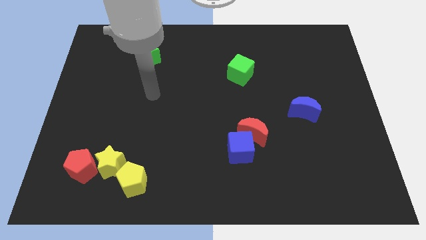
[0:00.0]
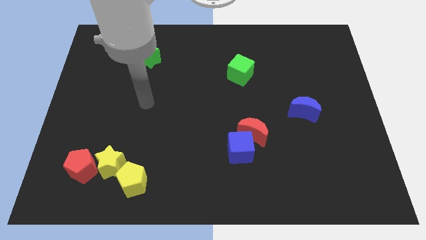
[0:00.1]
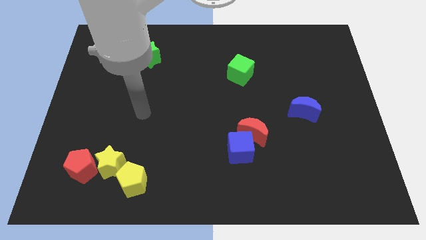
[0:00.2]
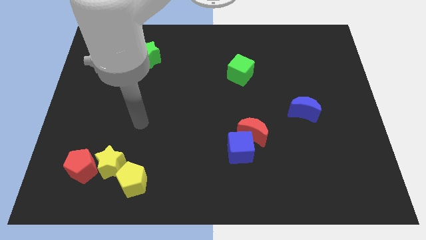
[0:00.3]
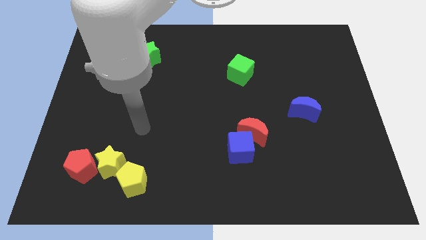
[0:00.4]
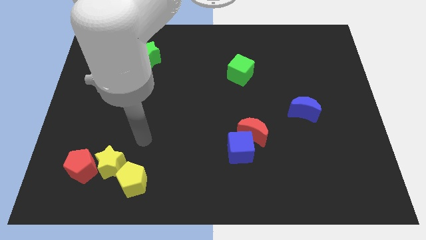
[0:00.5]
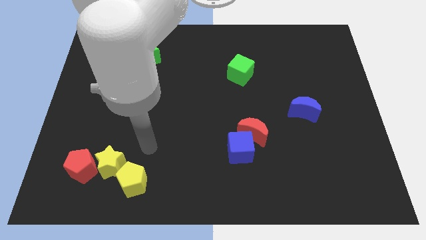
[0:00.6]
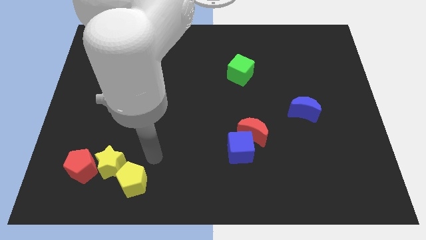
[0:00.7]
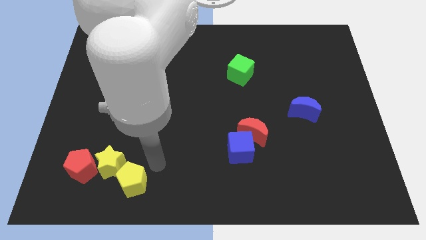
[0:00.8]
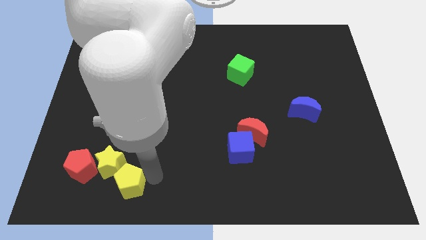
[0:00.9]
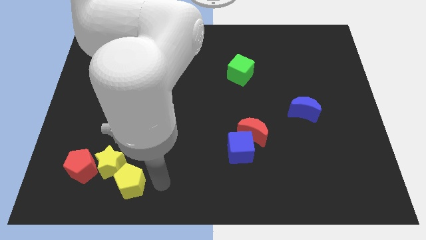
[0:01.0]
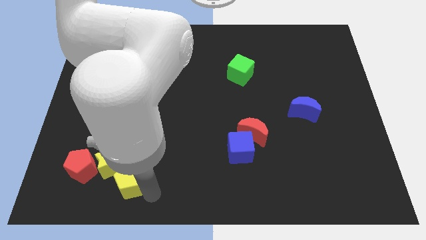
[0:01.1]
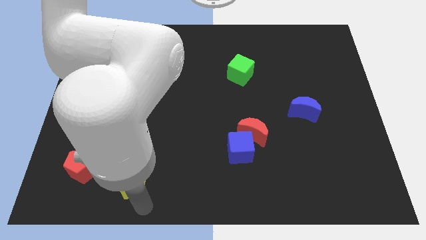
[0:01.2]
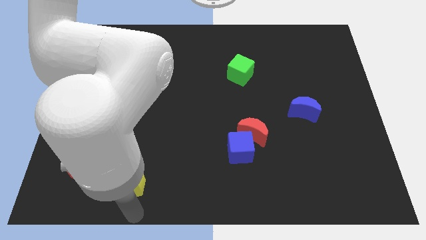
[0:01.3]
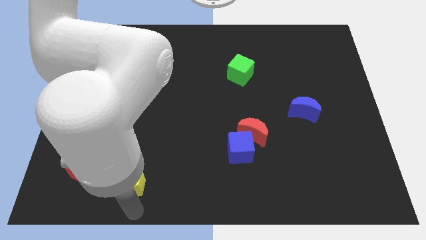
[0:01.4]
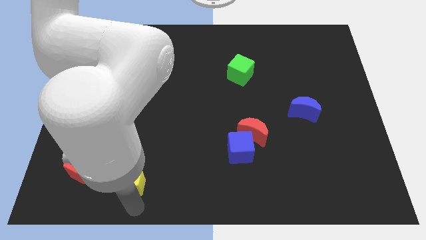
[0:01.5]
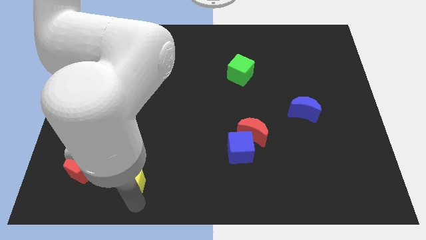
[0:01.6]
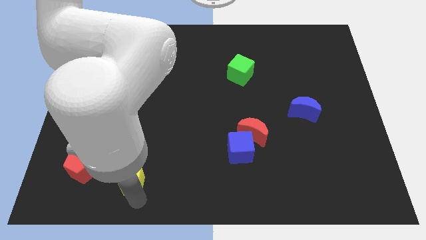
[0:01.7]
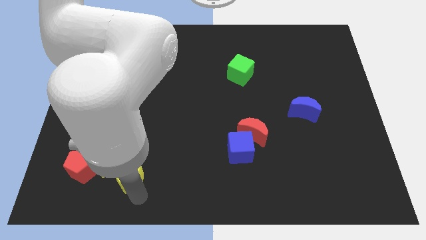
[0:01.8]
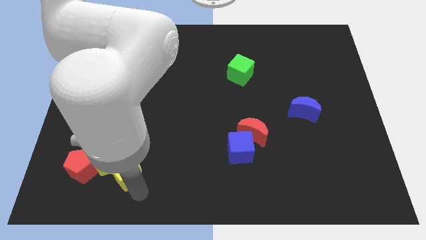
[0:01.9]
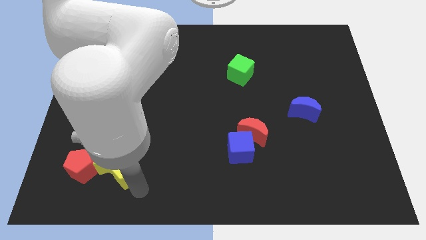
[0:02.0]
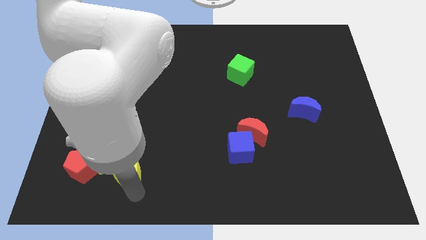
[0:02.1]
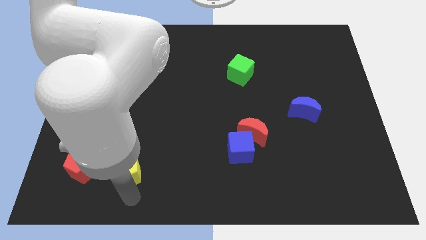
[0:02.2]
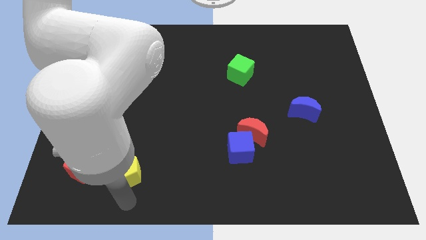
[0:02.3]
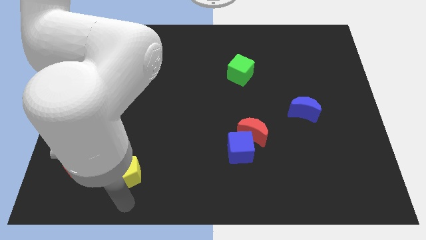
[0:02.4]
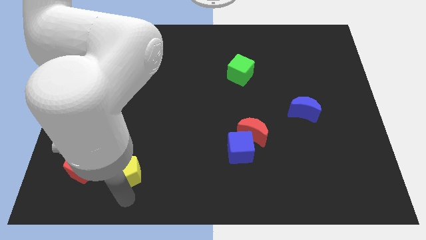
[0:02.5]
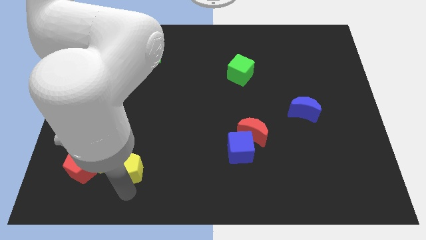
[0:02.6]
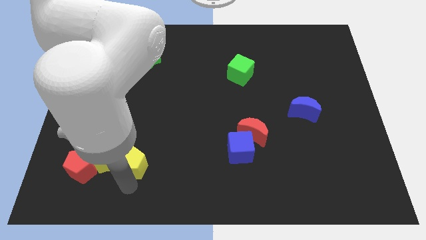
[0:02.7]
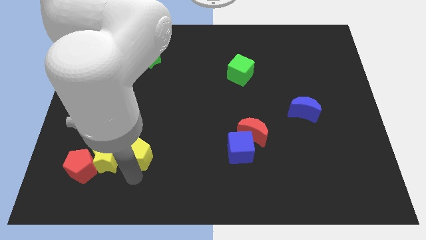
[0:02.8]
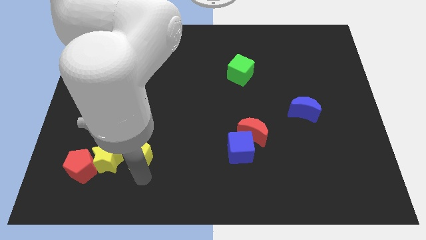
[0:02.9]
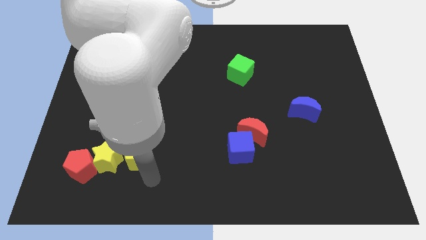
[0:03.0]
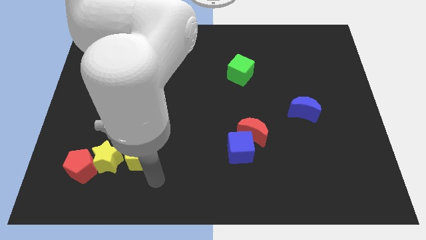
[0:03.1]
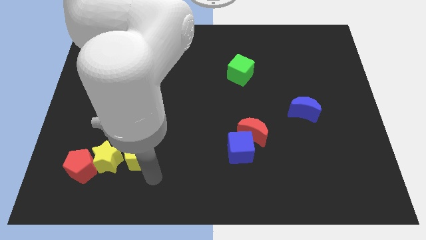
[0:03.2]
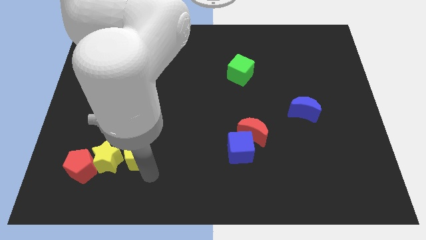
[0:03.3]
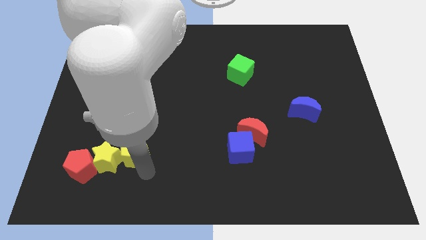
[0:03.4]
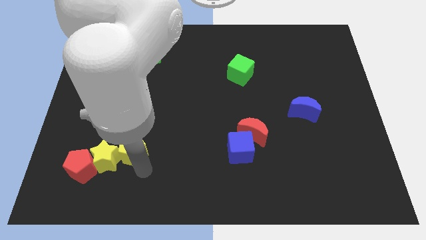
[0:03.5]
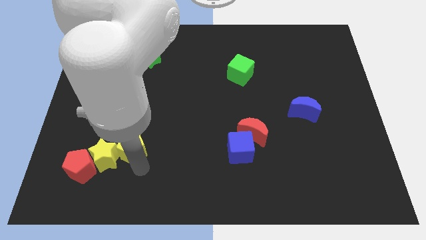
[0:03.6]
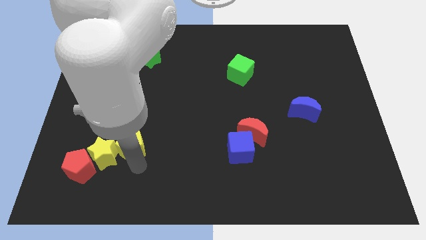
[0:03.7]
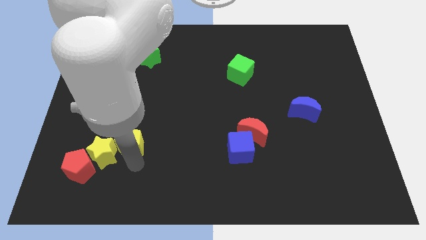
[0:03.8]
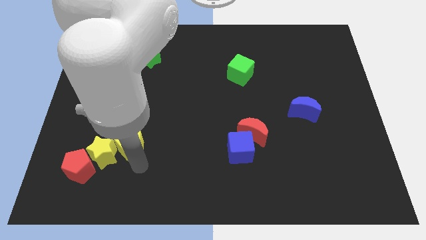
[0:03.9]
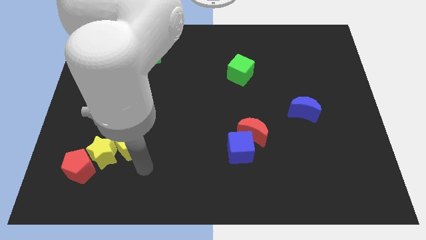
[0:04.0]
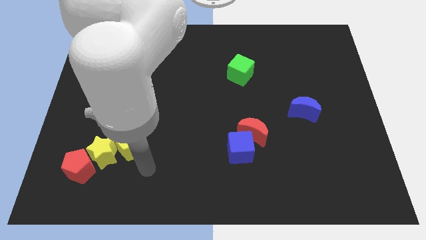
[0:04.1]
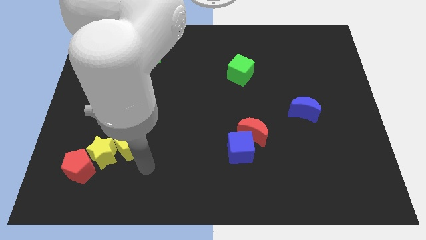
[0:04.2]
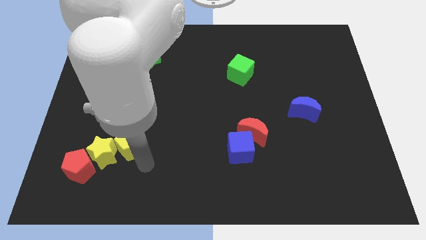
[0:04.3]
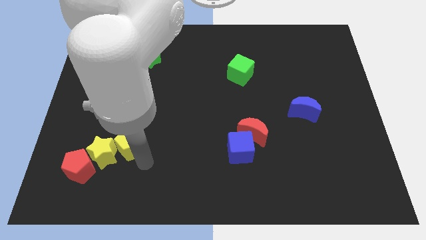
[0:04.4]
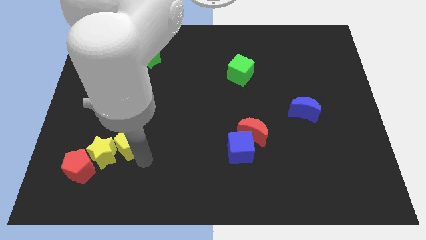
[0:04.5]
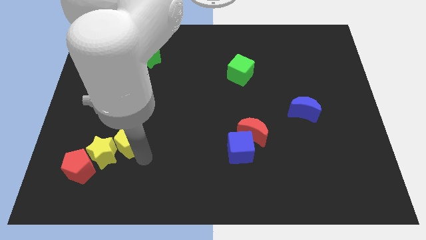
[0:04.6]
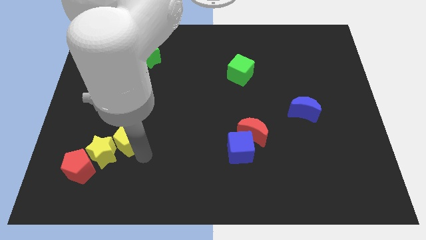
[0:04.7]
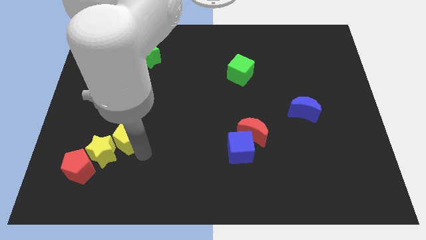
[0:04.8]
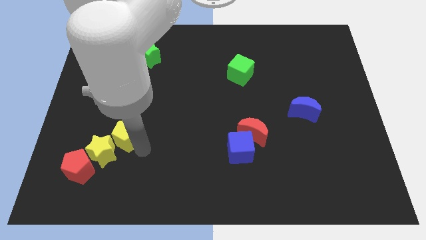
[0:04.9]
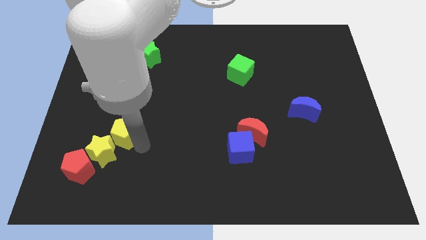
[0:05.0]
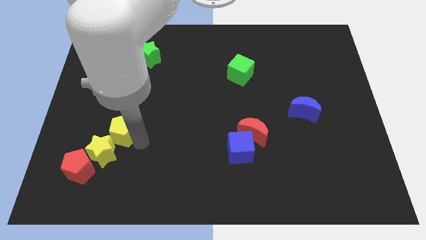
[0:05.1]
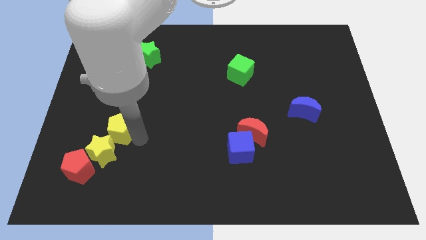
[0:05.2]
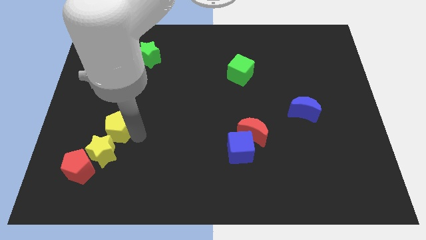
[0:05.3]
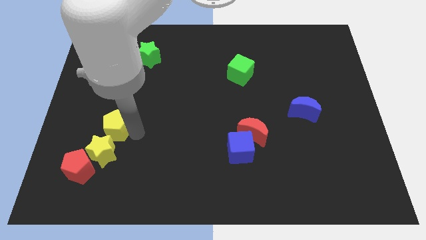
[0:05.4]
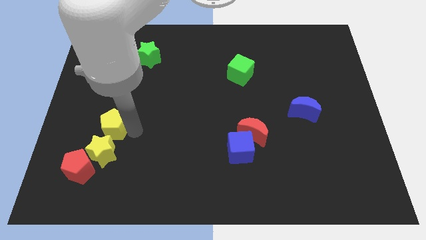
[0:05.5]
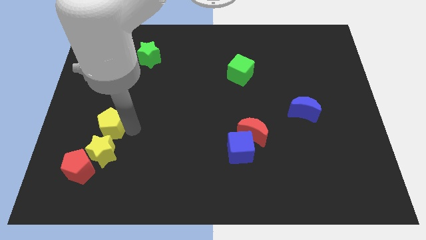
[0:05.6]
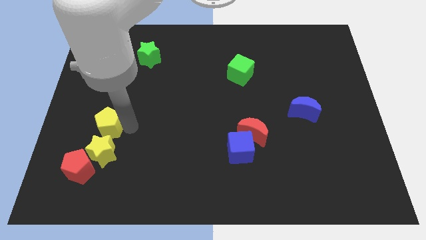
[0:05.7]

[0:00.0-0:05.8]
slide the yellow pentagon to the top side of the red pentagon

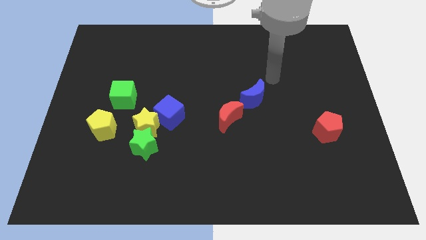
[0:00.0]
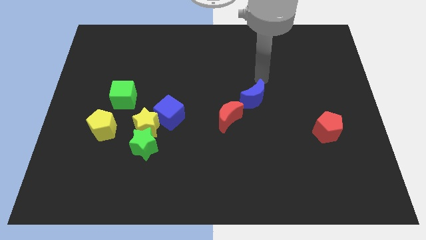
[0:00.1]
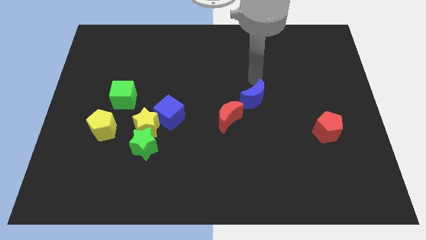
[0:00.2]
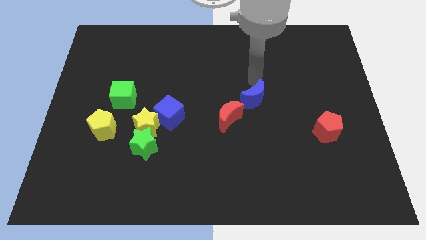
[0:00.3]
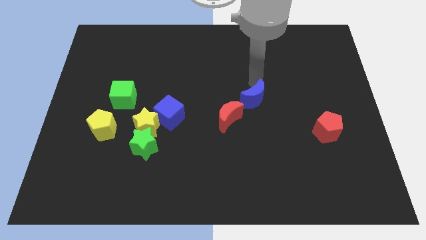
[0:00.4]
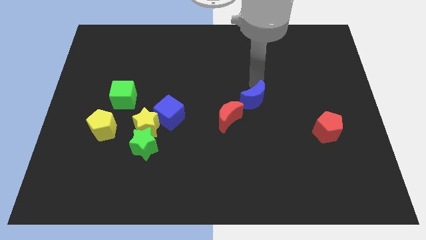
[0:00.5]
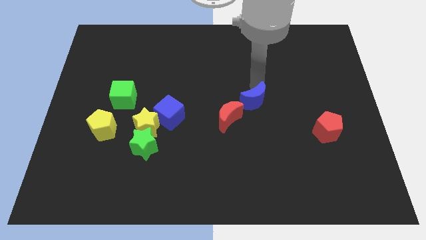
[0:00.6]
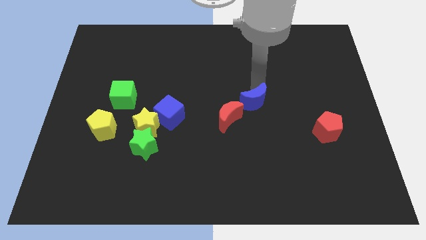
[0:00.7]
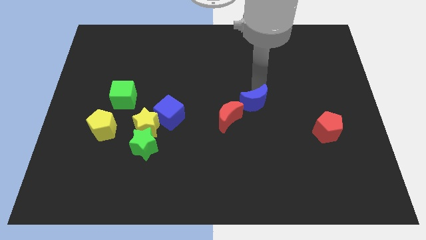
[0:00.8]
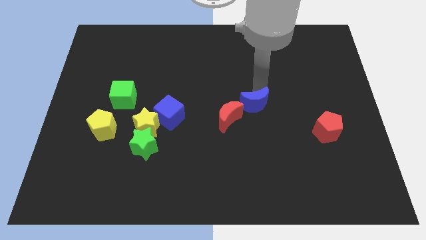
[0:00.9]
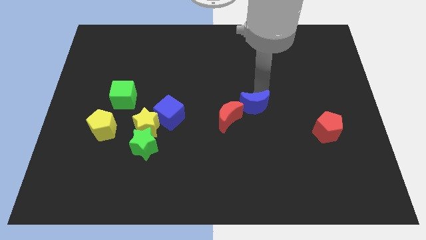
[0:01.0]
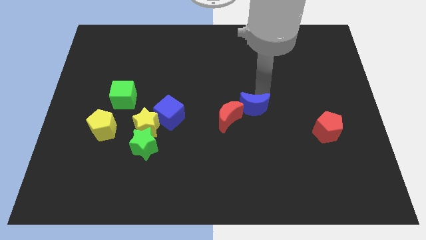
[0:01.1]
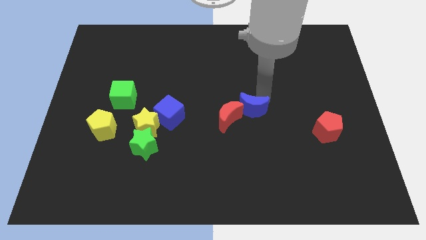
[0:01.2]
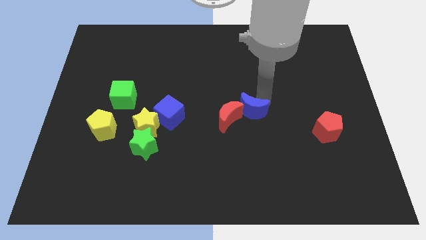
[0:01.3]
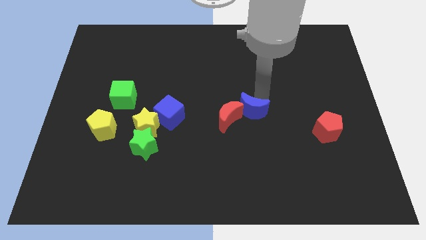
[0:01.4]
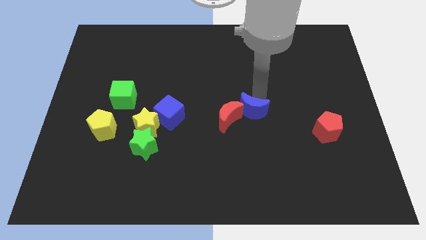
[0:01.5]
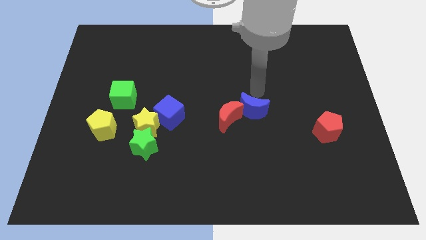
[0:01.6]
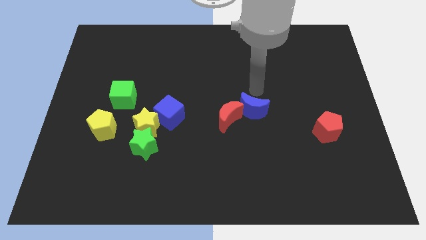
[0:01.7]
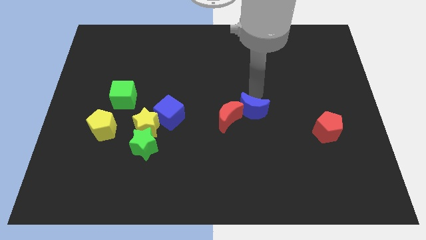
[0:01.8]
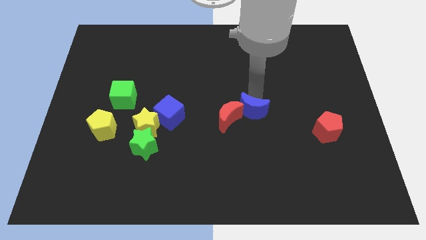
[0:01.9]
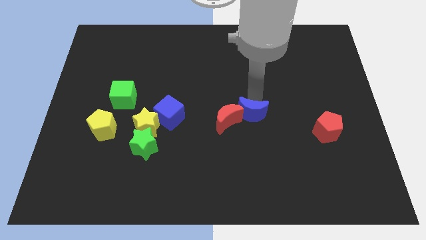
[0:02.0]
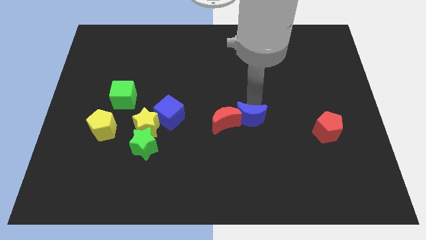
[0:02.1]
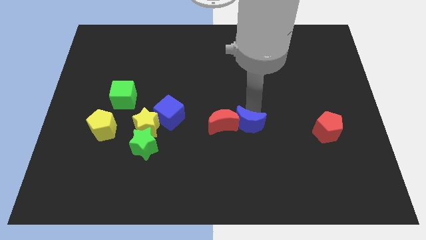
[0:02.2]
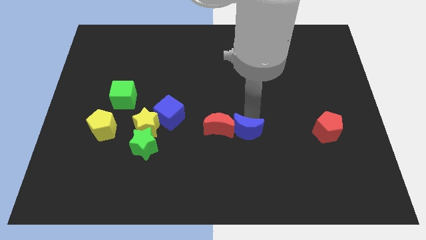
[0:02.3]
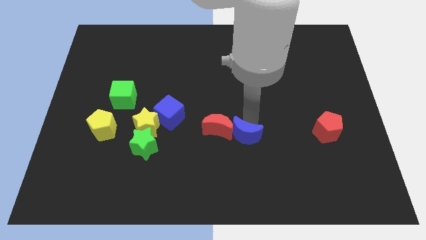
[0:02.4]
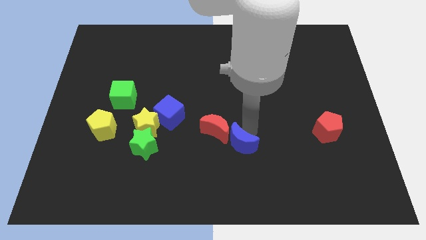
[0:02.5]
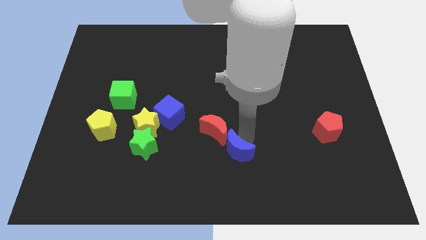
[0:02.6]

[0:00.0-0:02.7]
put the blue moon to the bottom side of the red moon
